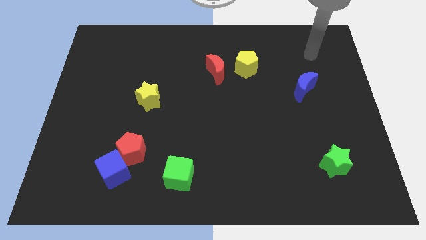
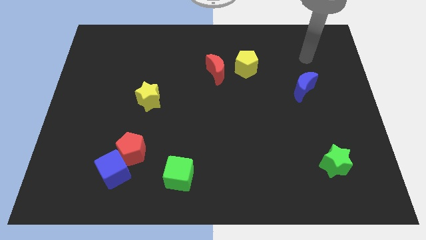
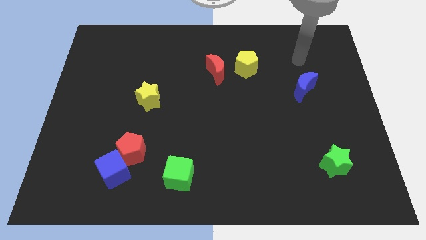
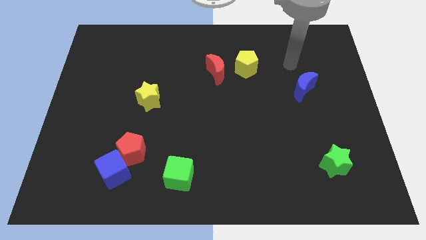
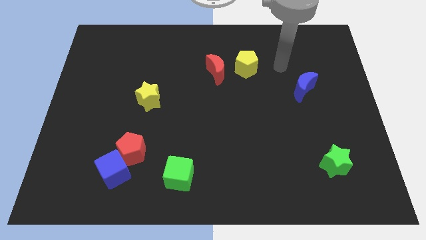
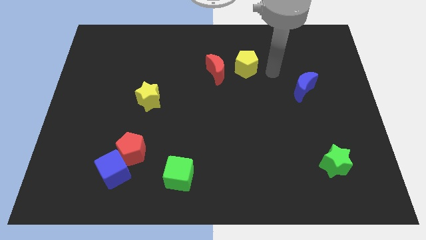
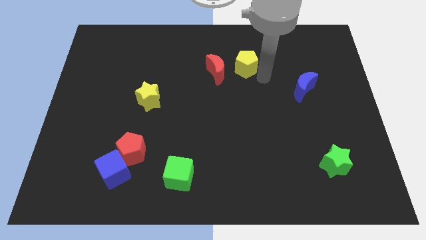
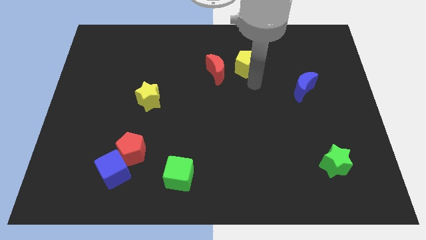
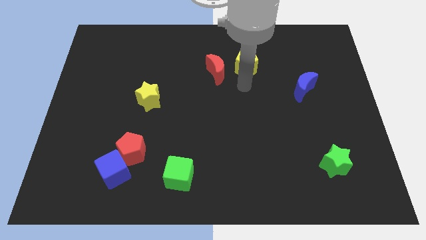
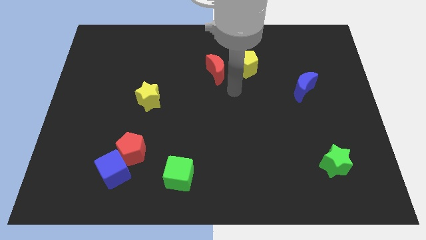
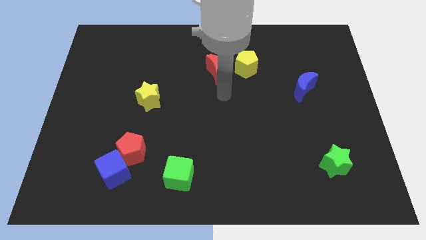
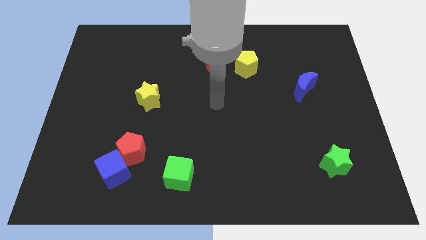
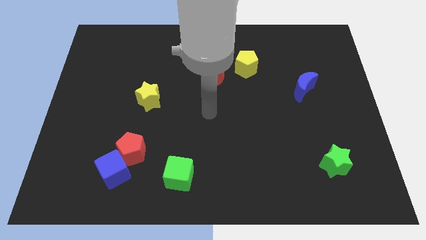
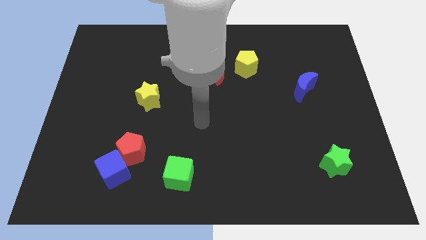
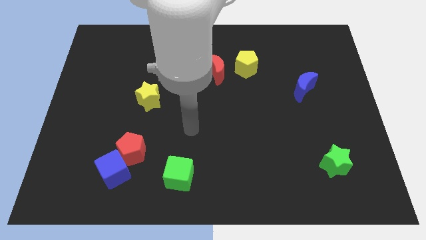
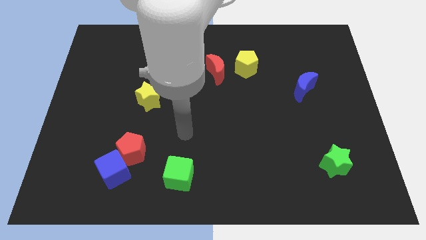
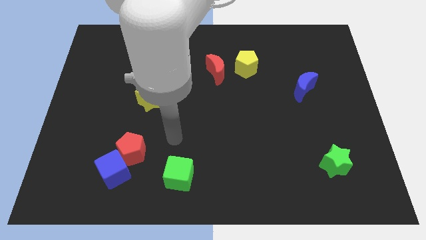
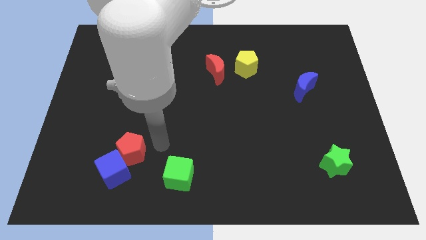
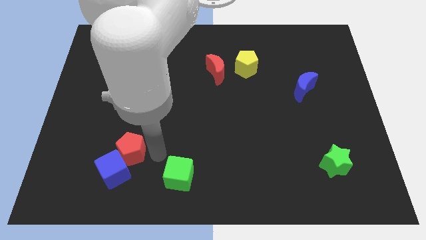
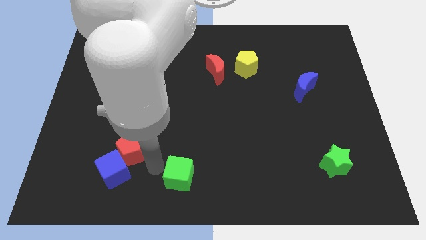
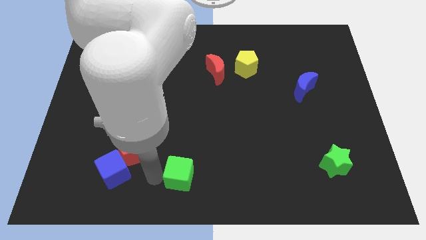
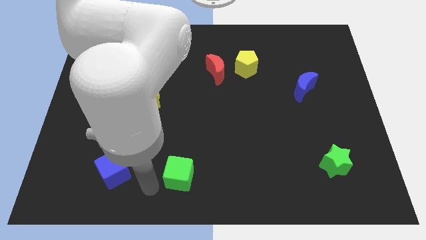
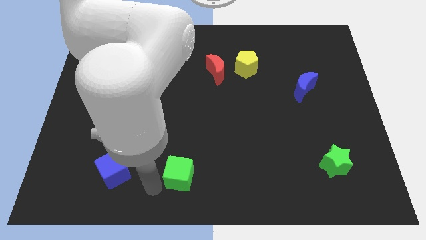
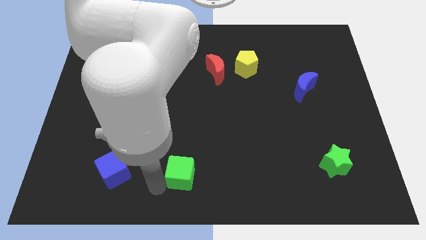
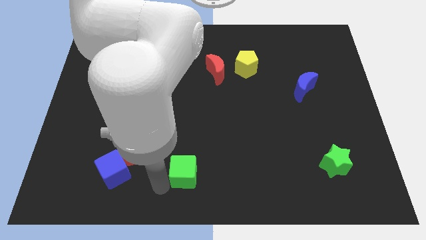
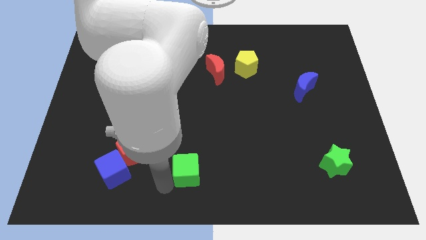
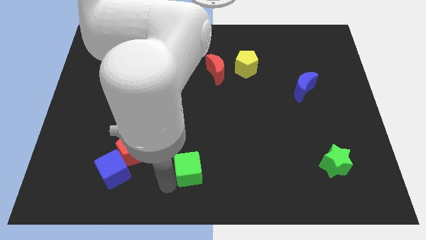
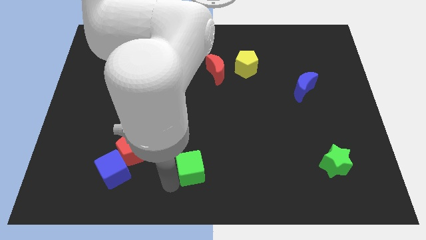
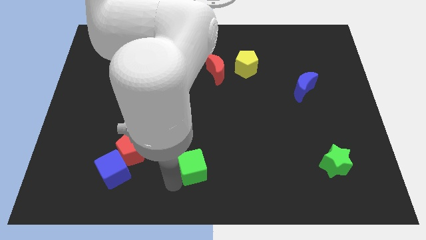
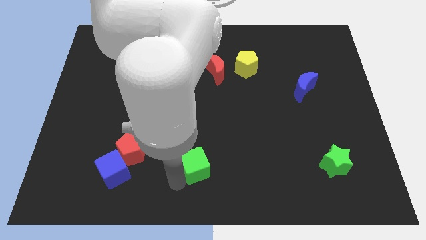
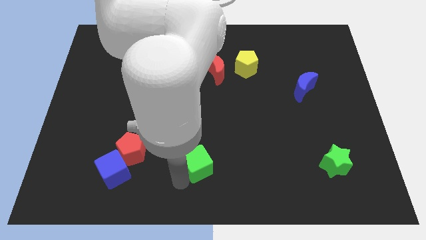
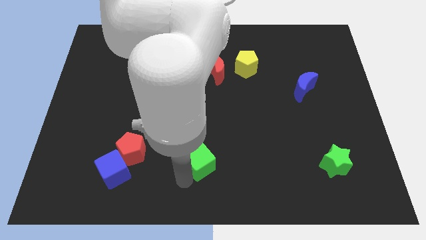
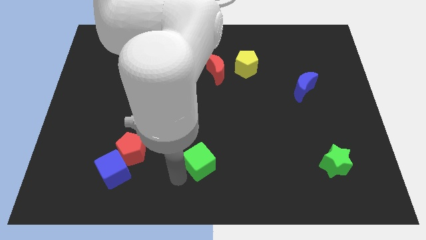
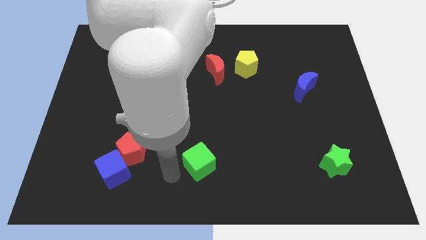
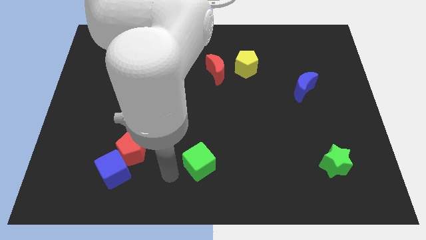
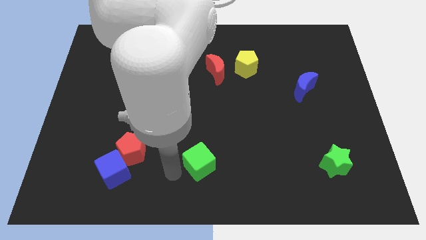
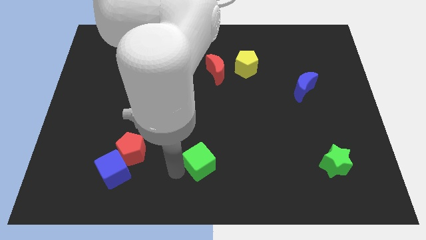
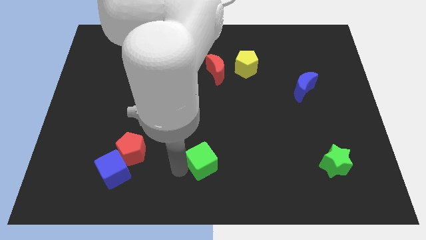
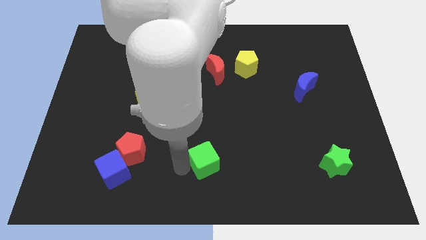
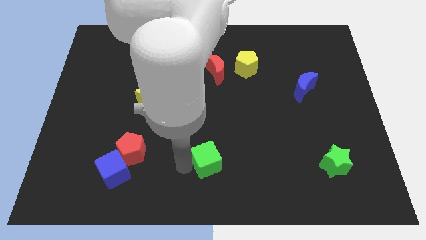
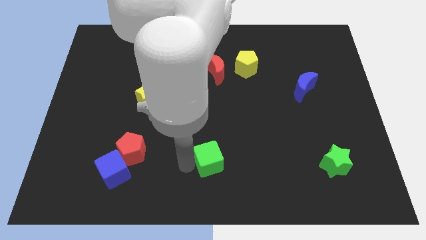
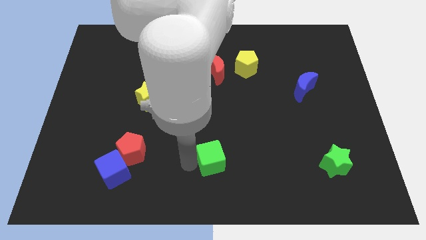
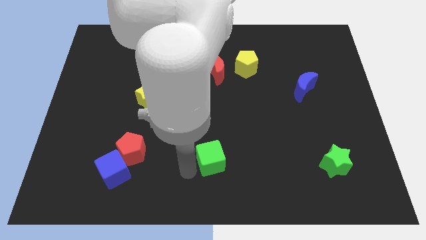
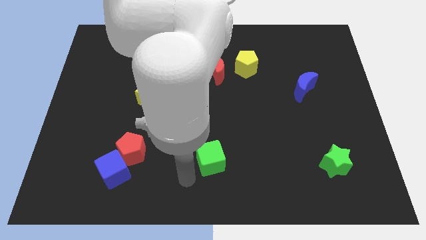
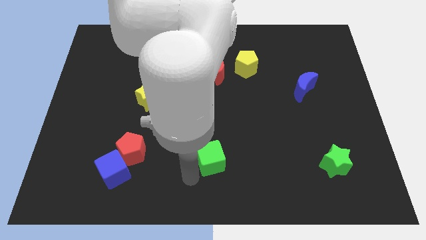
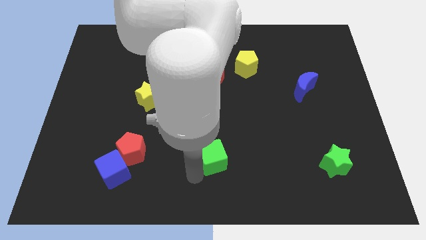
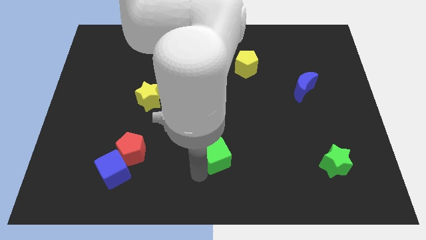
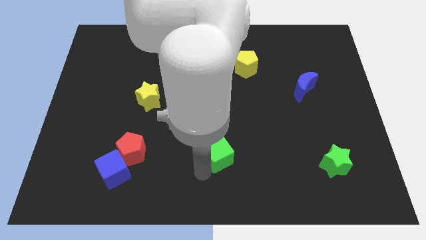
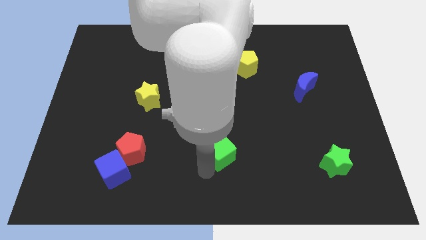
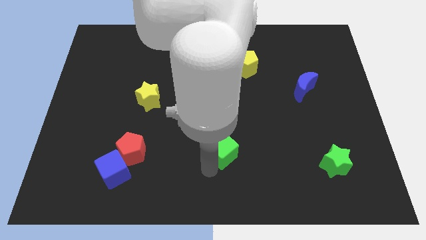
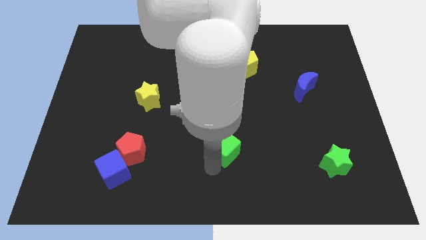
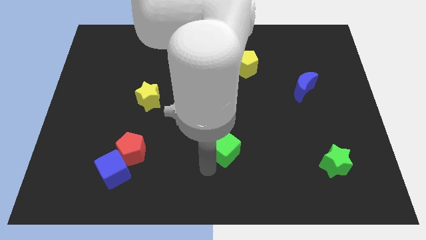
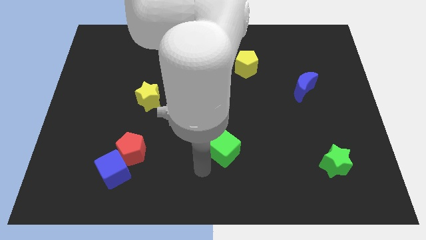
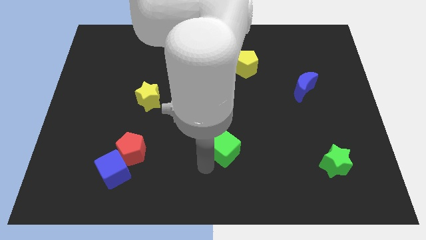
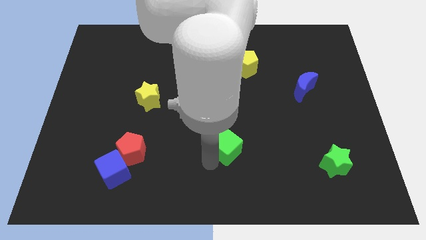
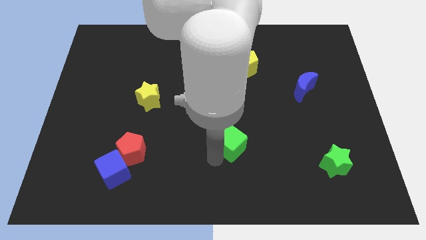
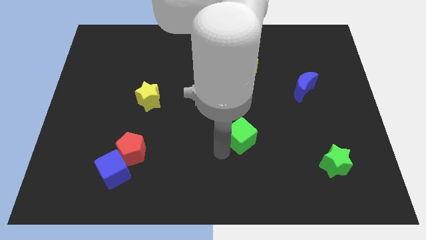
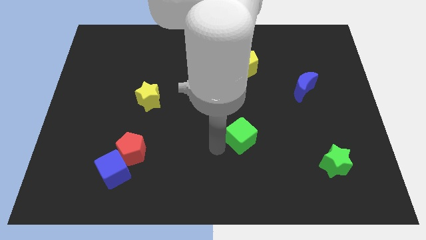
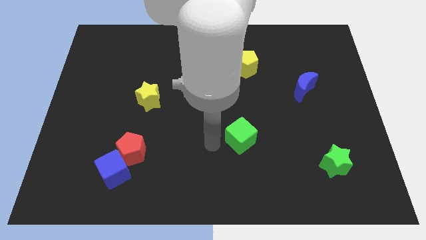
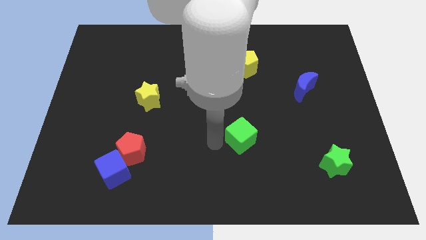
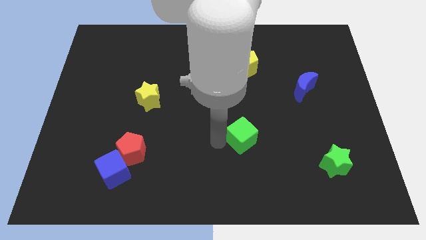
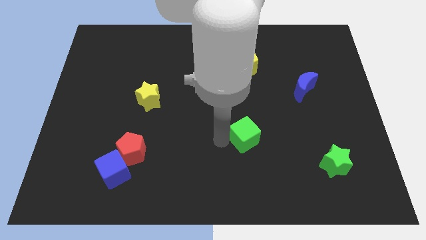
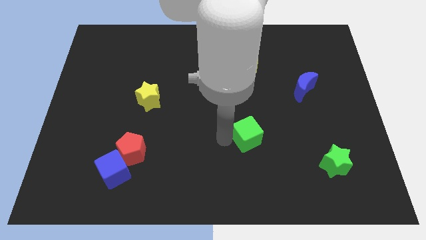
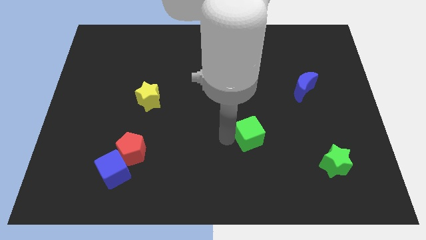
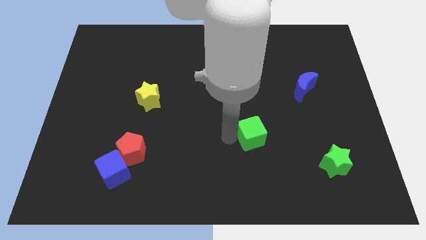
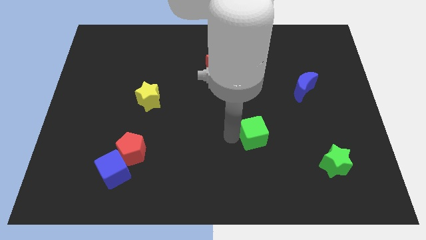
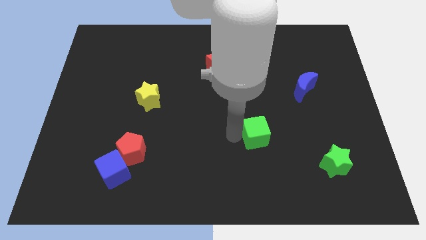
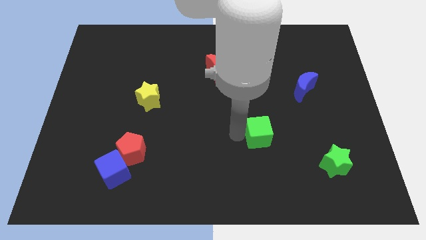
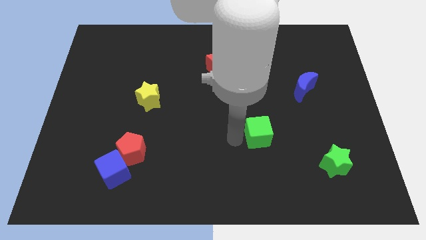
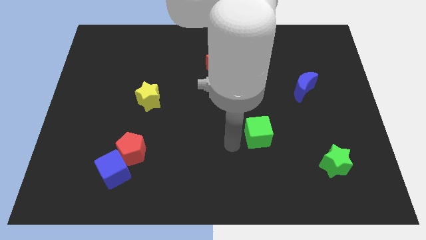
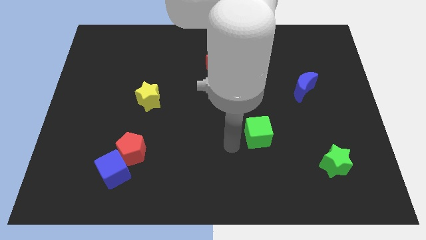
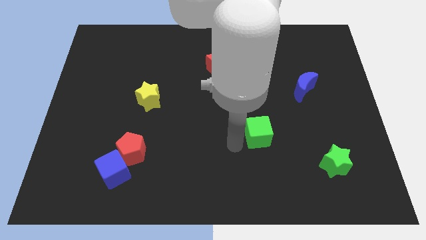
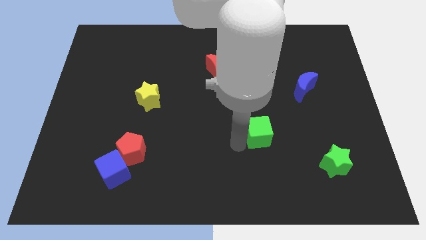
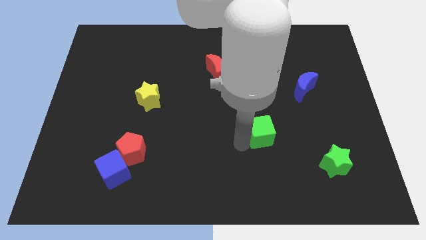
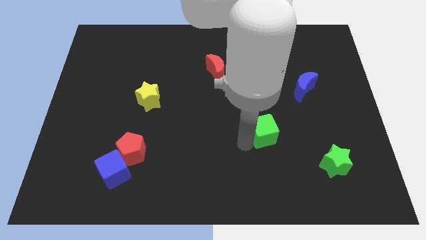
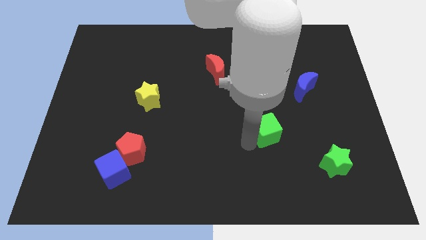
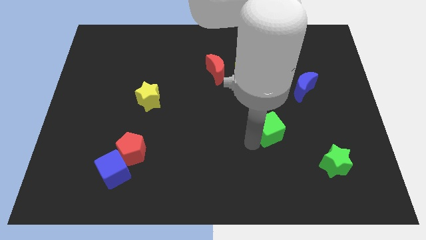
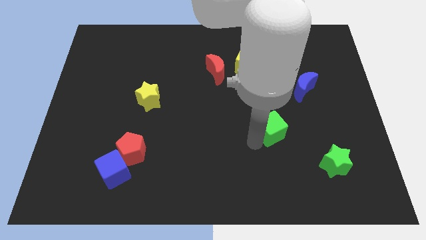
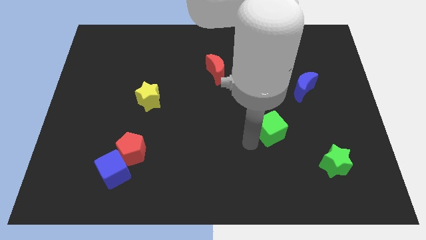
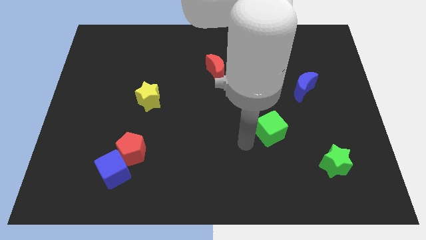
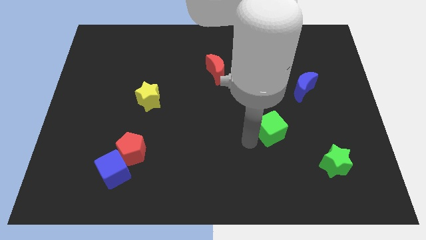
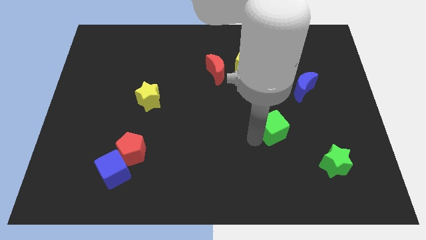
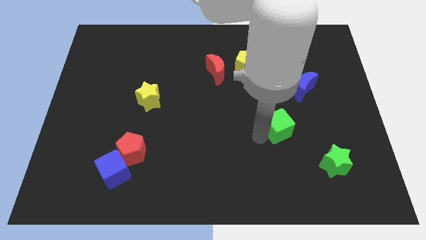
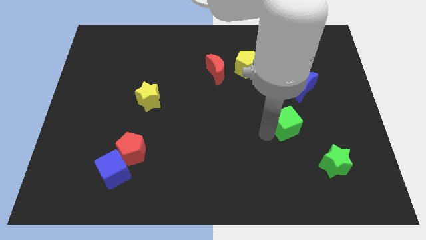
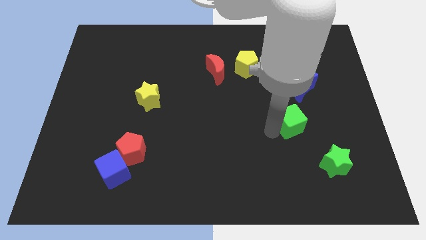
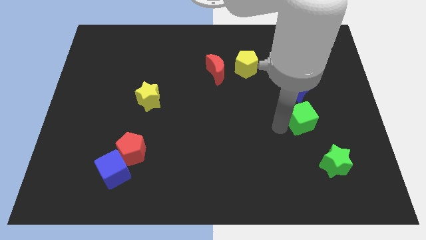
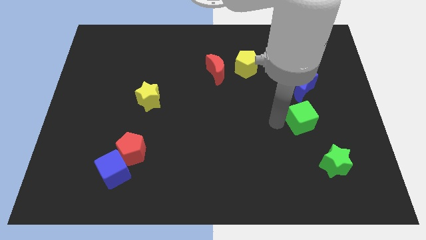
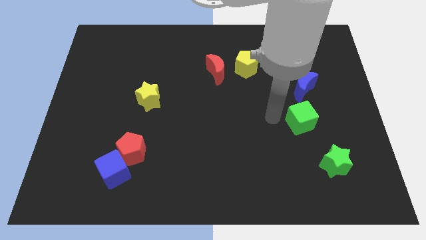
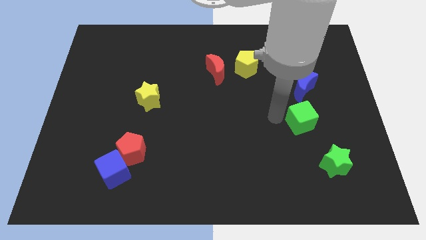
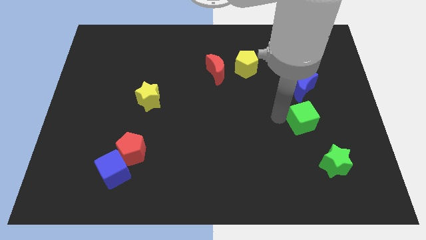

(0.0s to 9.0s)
move the green cube to the top of the green star
